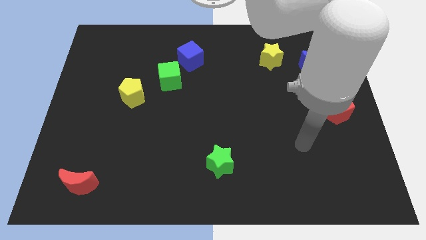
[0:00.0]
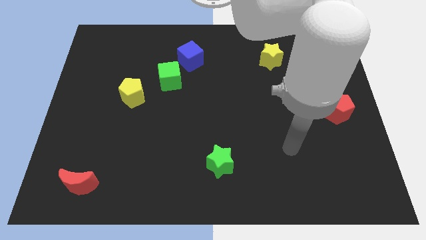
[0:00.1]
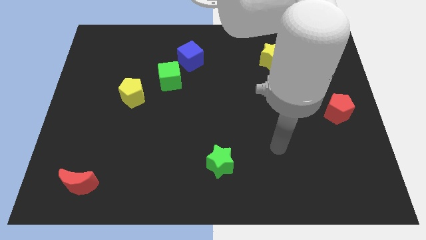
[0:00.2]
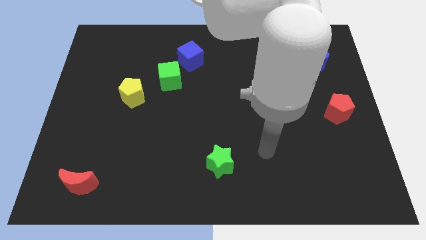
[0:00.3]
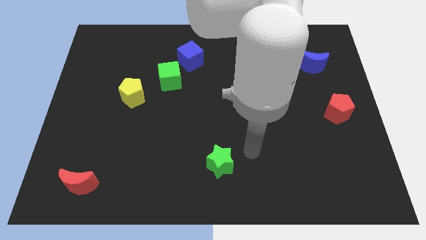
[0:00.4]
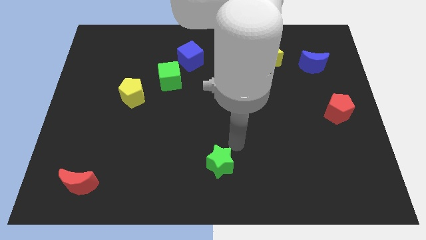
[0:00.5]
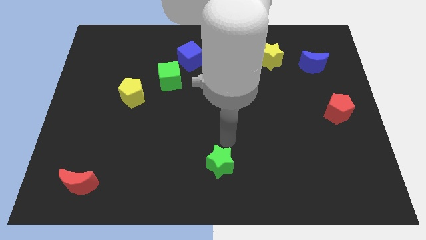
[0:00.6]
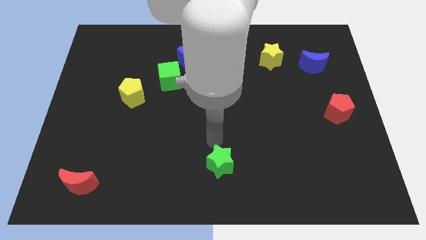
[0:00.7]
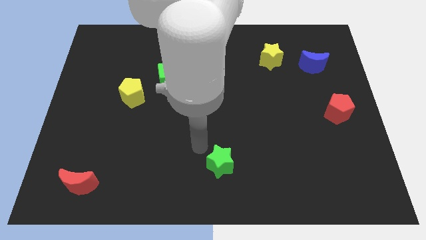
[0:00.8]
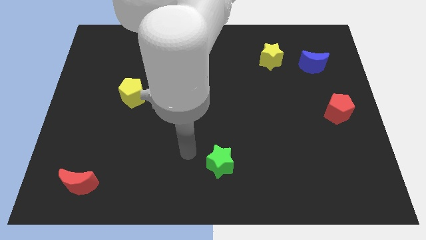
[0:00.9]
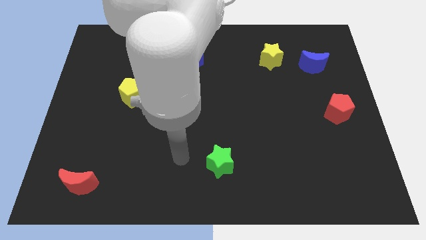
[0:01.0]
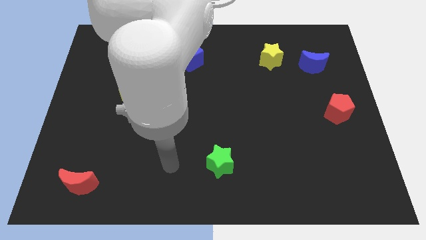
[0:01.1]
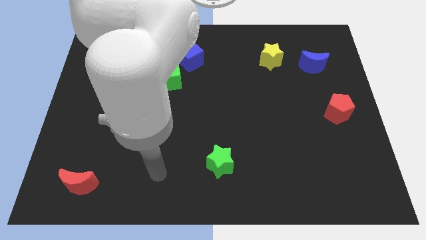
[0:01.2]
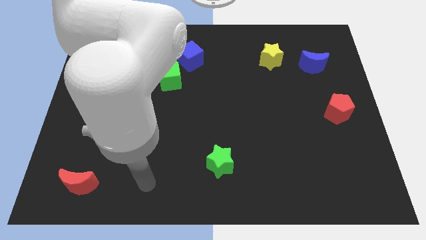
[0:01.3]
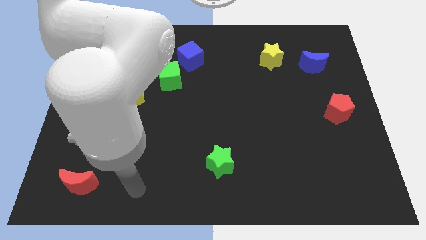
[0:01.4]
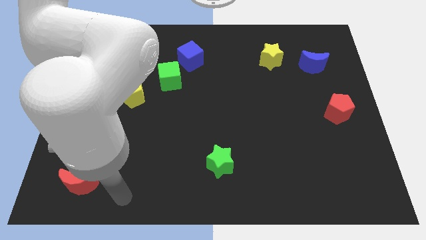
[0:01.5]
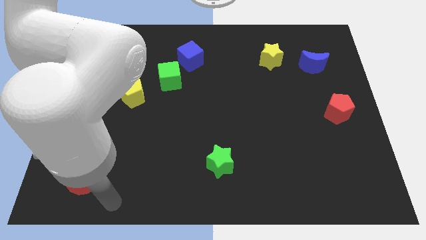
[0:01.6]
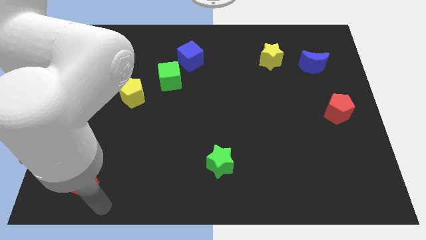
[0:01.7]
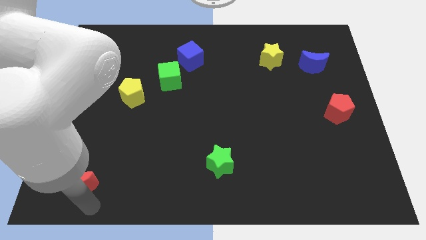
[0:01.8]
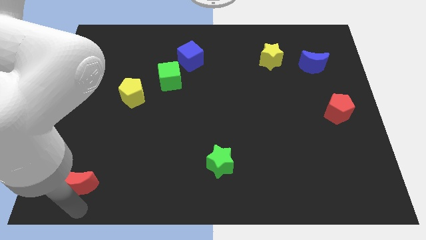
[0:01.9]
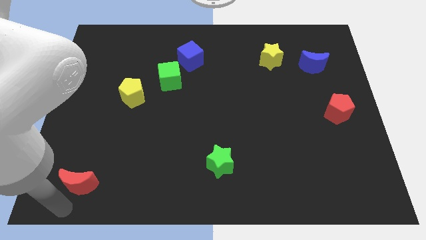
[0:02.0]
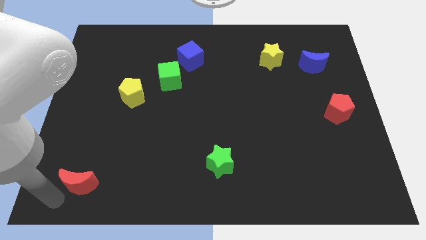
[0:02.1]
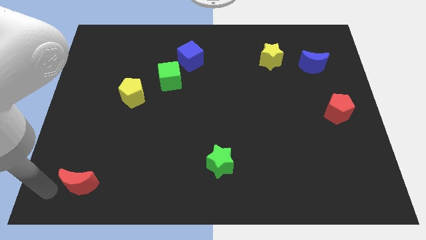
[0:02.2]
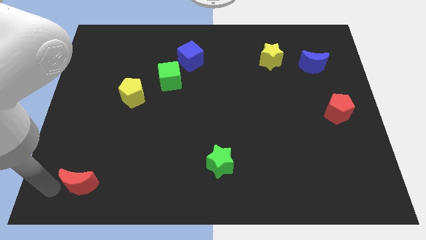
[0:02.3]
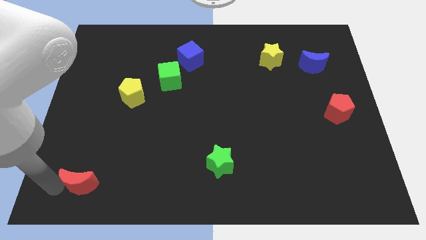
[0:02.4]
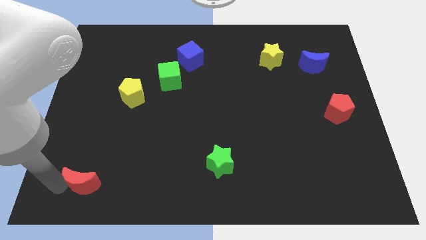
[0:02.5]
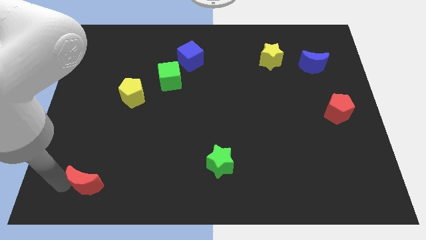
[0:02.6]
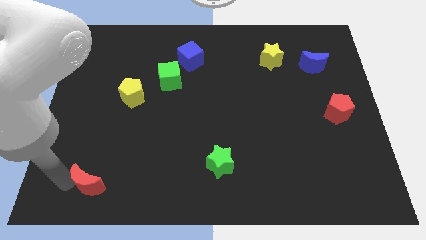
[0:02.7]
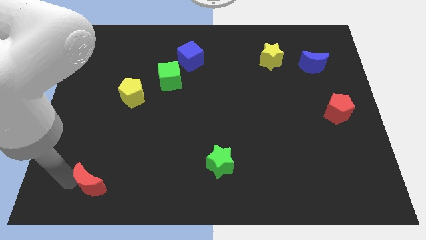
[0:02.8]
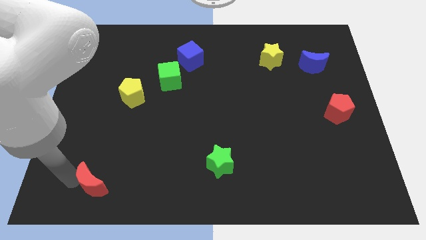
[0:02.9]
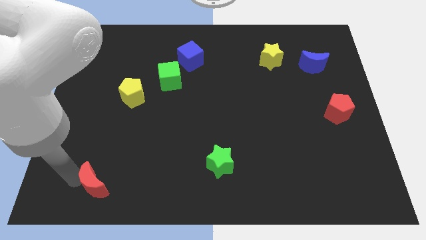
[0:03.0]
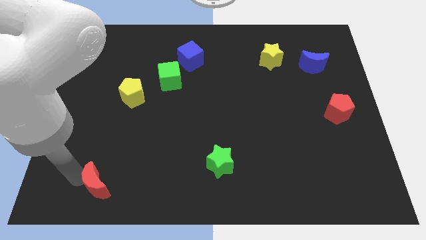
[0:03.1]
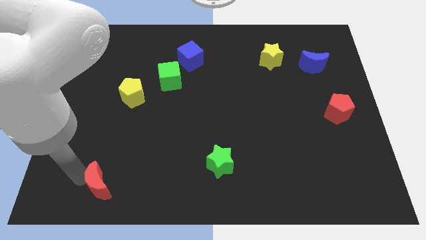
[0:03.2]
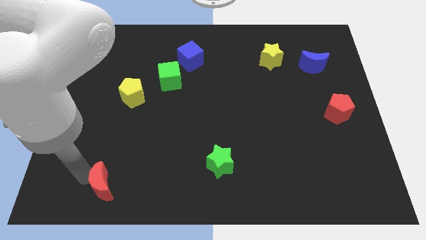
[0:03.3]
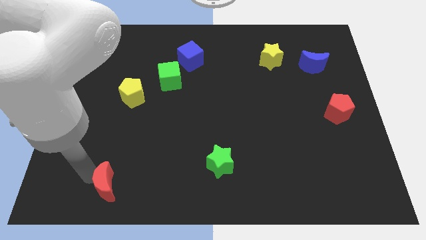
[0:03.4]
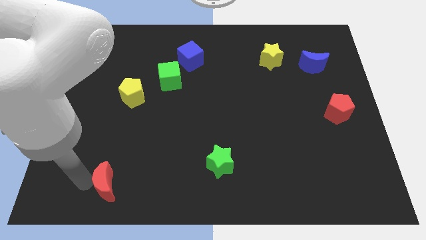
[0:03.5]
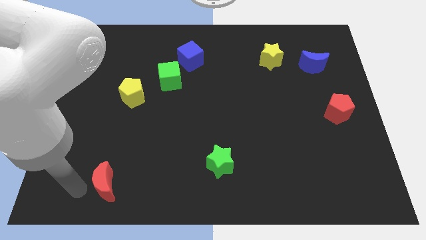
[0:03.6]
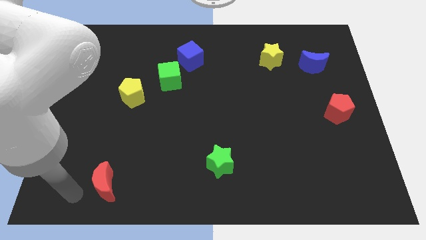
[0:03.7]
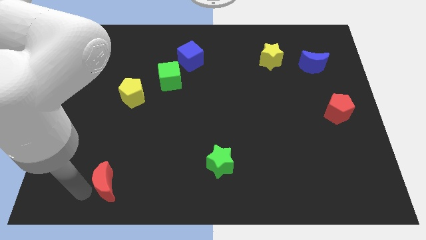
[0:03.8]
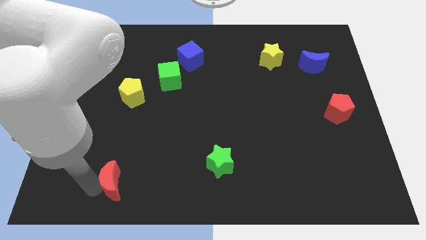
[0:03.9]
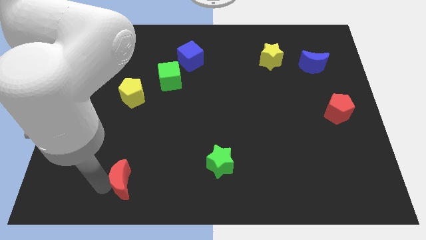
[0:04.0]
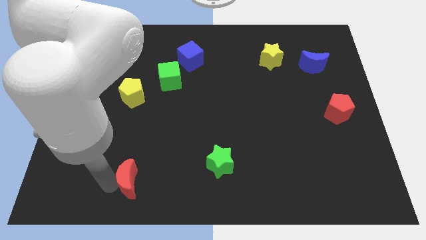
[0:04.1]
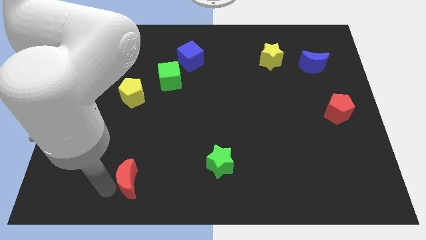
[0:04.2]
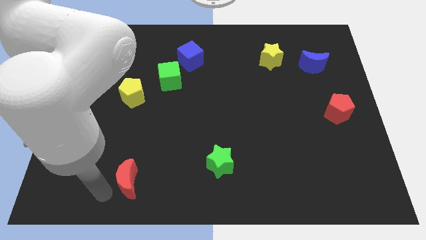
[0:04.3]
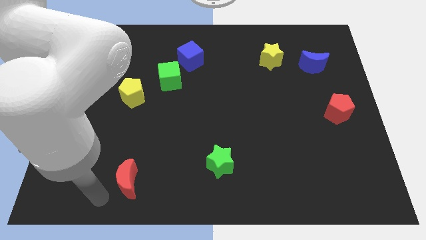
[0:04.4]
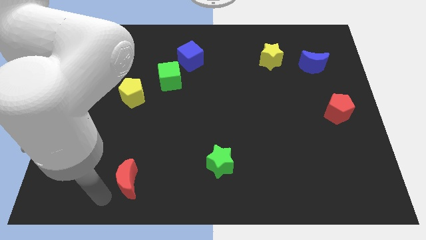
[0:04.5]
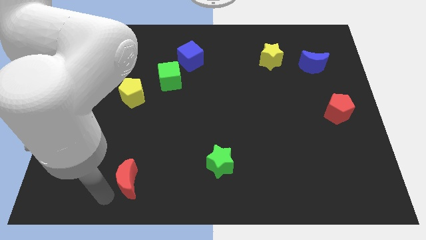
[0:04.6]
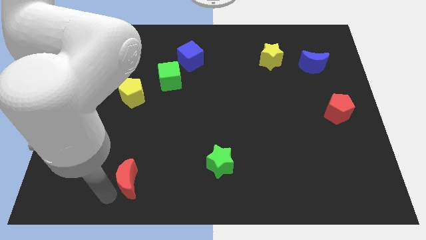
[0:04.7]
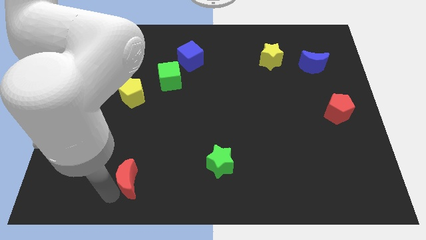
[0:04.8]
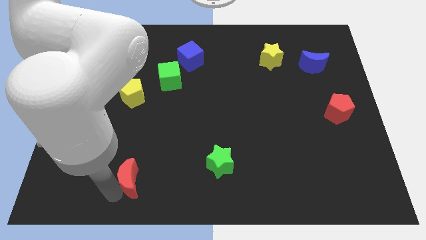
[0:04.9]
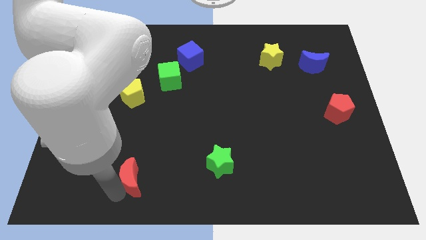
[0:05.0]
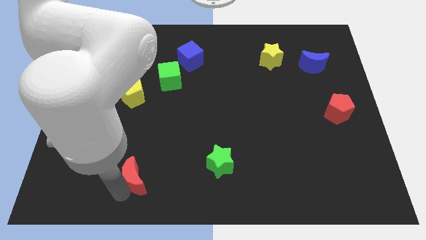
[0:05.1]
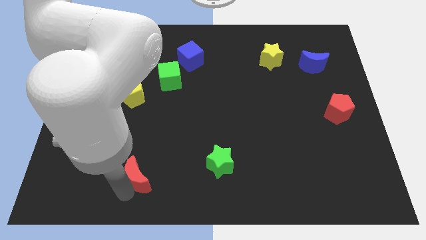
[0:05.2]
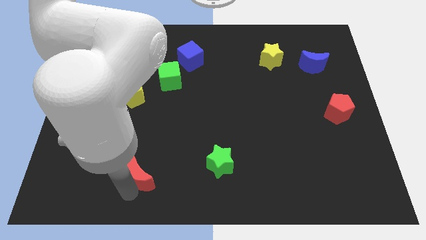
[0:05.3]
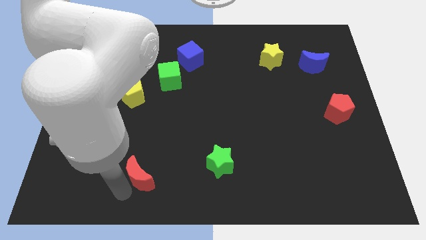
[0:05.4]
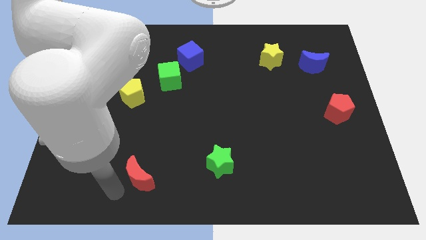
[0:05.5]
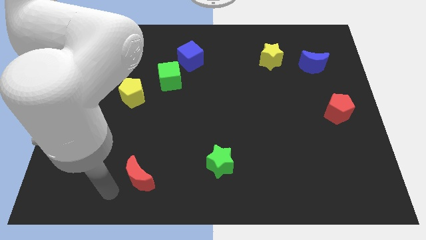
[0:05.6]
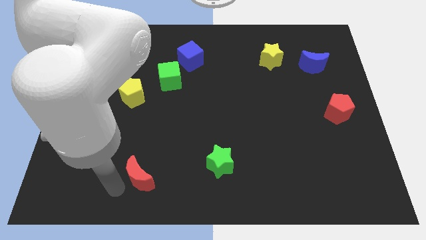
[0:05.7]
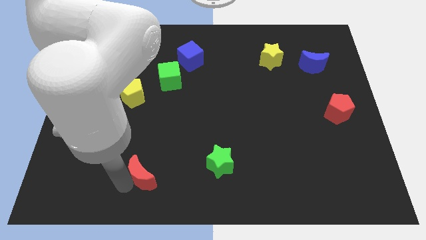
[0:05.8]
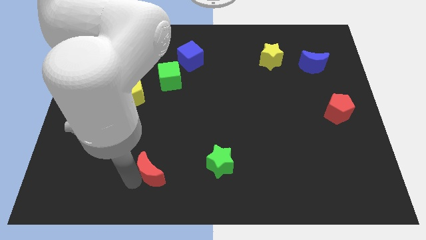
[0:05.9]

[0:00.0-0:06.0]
move the red moon just left of the green star
